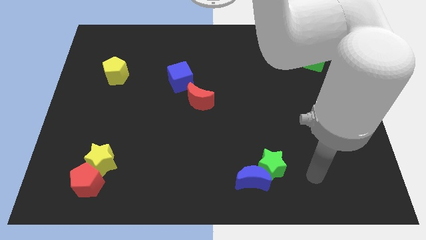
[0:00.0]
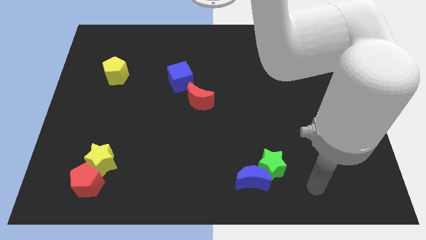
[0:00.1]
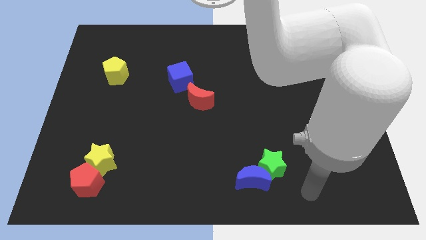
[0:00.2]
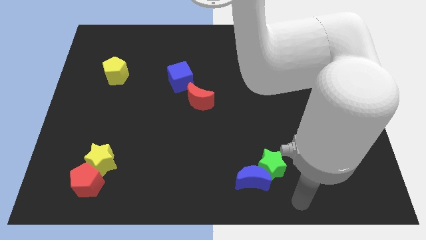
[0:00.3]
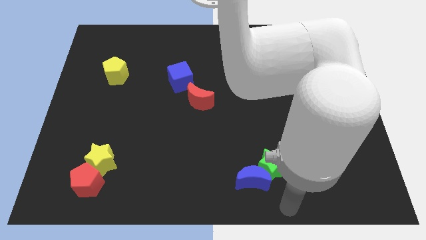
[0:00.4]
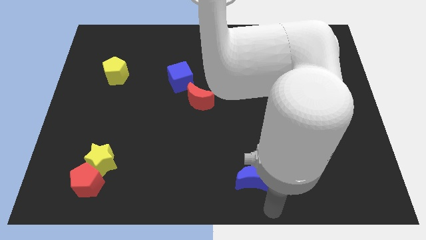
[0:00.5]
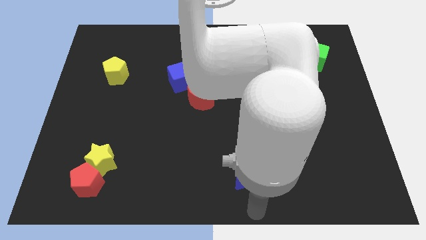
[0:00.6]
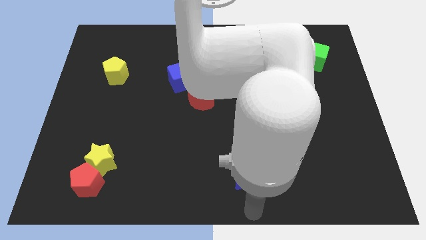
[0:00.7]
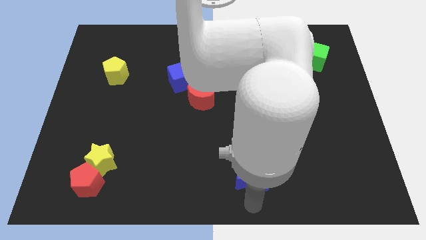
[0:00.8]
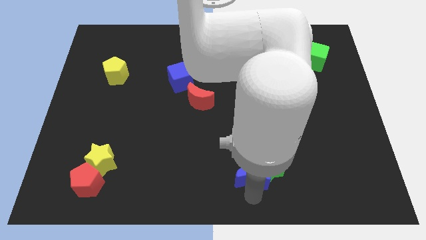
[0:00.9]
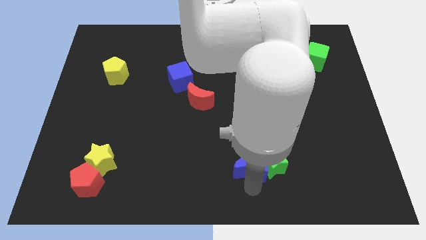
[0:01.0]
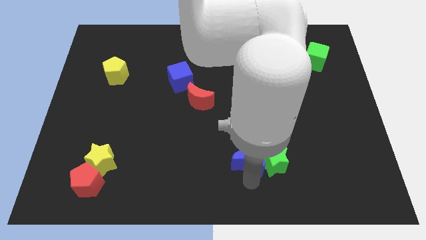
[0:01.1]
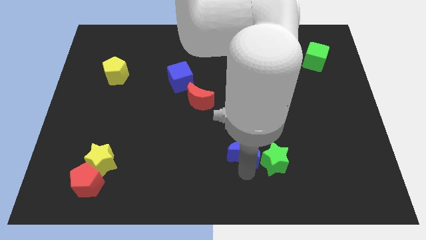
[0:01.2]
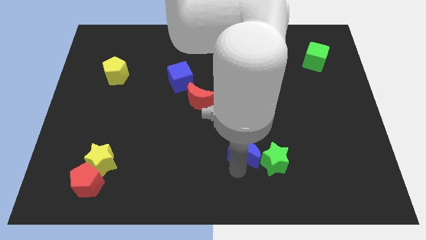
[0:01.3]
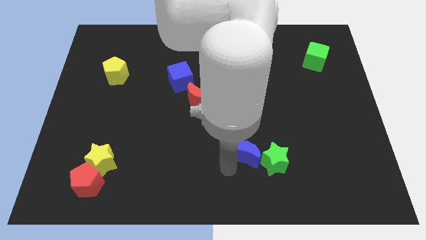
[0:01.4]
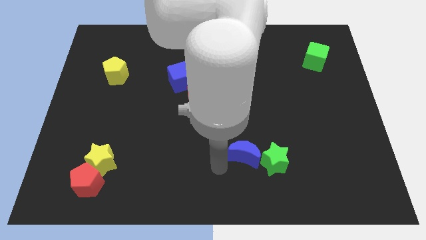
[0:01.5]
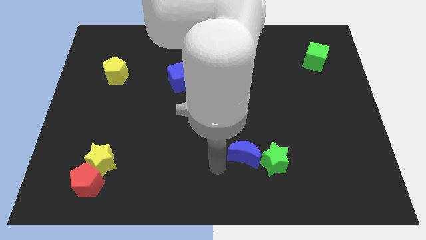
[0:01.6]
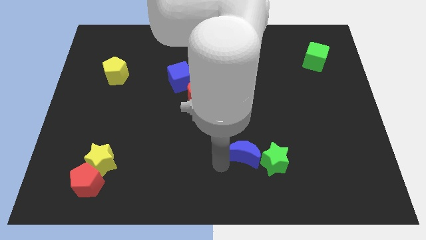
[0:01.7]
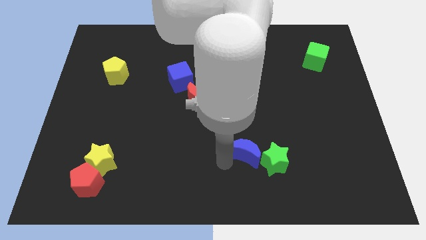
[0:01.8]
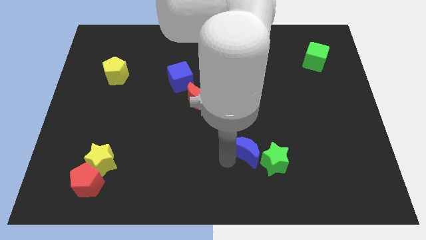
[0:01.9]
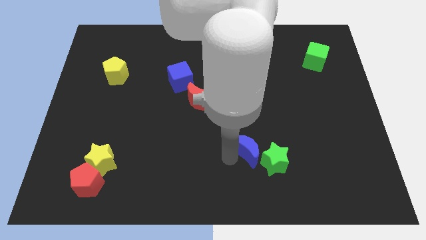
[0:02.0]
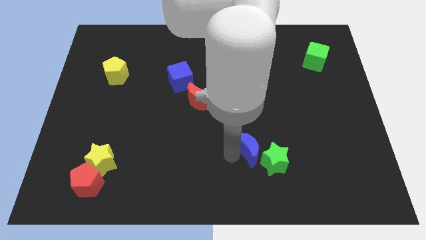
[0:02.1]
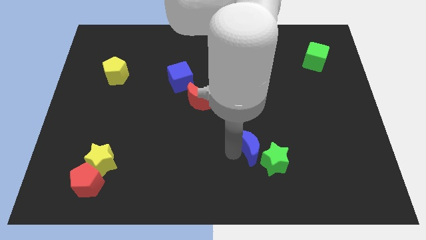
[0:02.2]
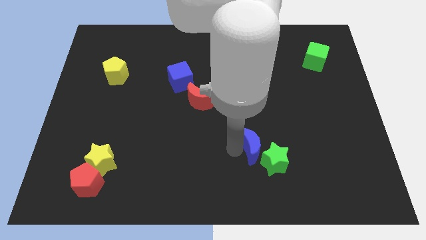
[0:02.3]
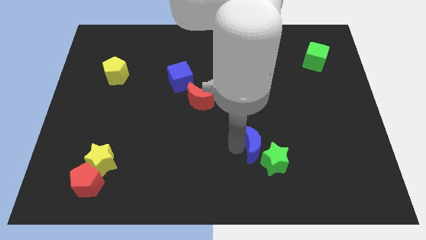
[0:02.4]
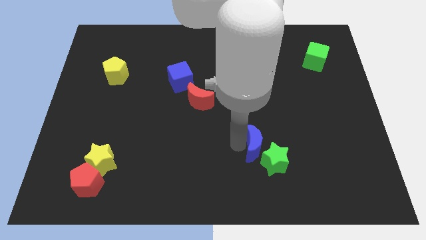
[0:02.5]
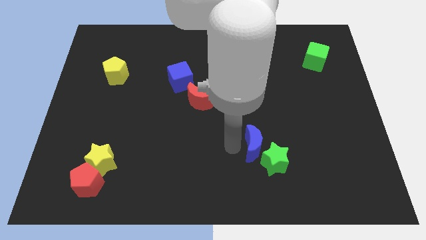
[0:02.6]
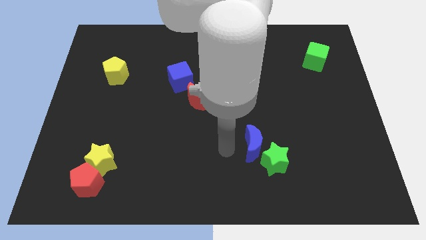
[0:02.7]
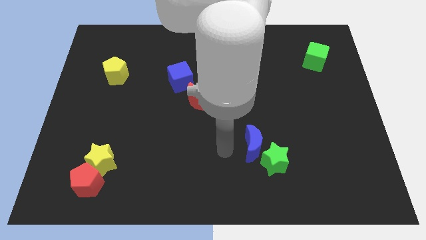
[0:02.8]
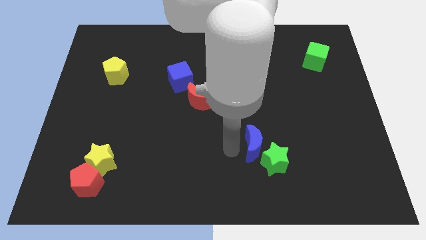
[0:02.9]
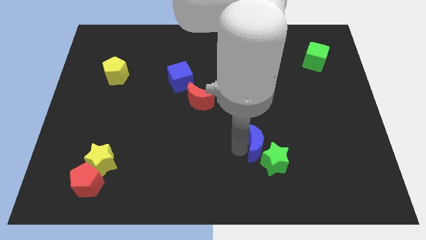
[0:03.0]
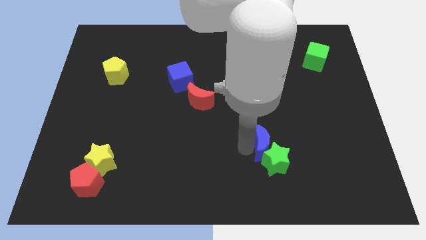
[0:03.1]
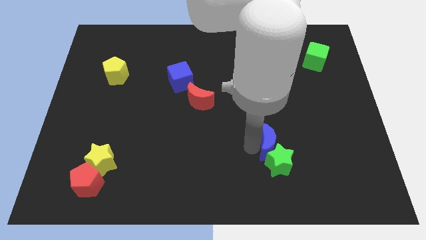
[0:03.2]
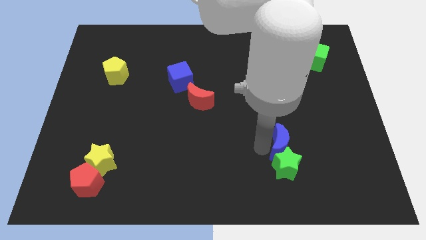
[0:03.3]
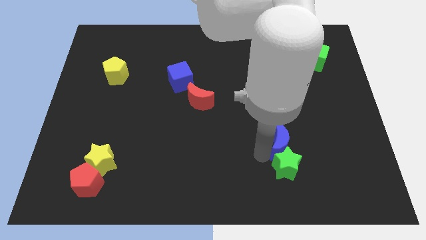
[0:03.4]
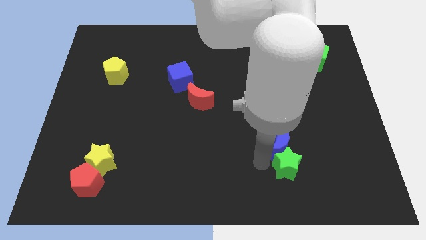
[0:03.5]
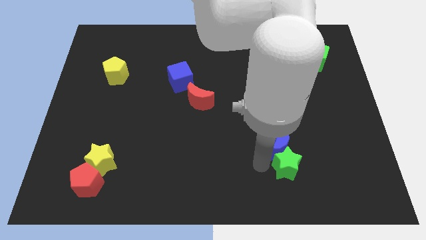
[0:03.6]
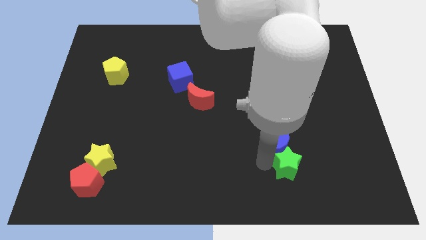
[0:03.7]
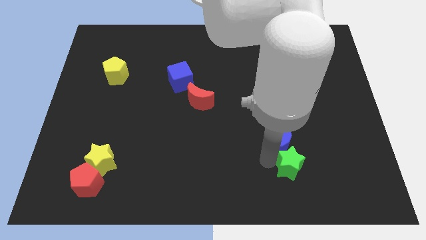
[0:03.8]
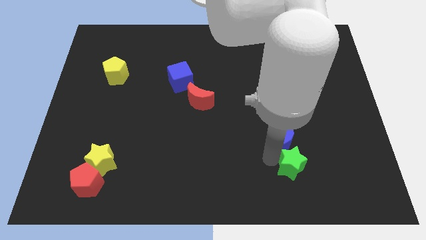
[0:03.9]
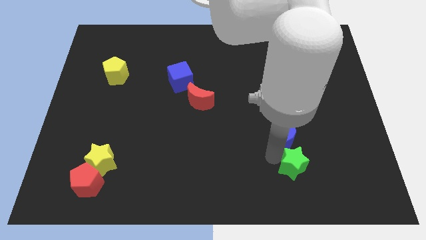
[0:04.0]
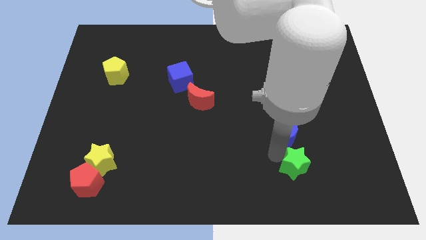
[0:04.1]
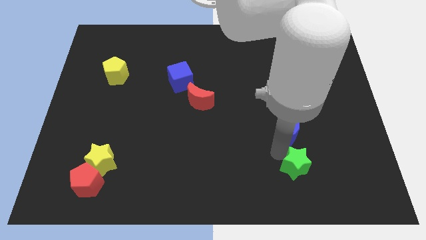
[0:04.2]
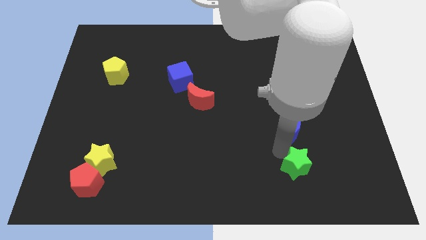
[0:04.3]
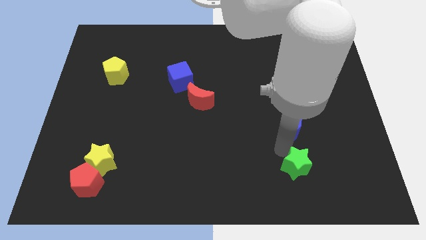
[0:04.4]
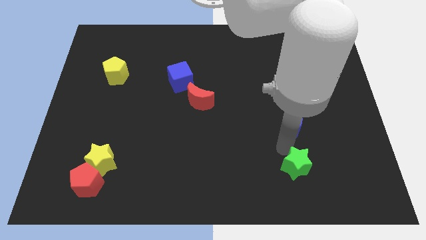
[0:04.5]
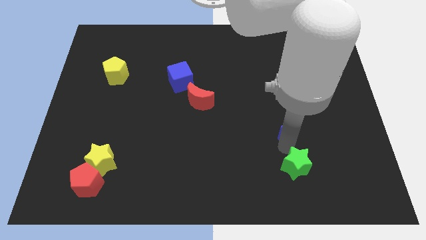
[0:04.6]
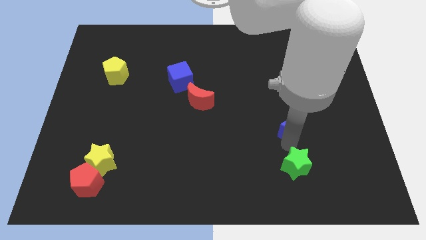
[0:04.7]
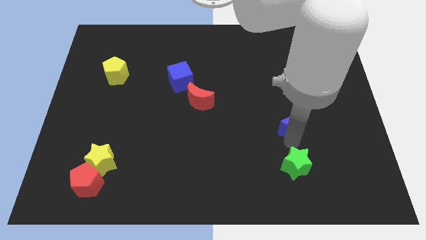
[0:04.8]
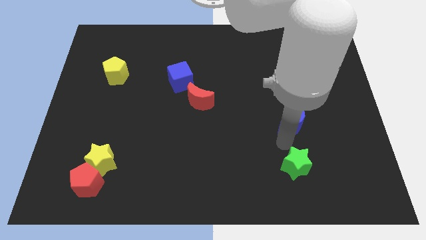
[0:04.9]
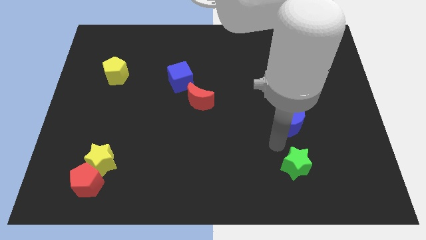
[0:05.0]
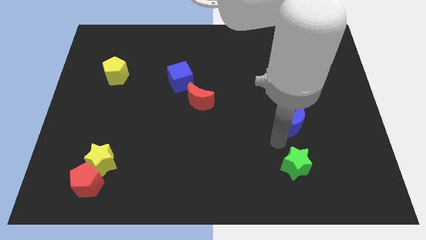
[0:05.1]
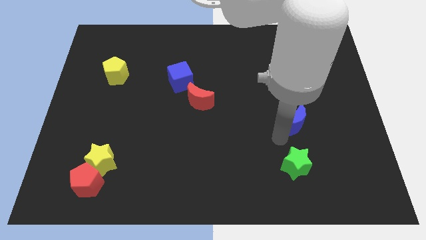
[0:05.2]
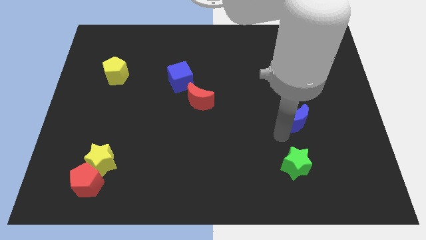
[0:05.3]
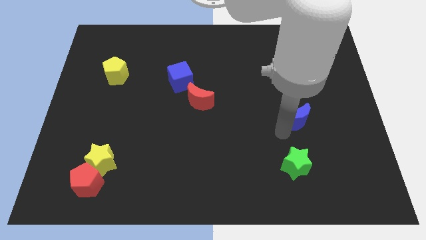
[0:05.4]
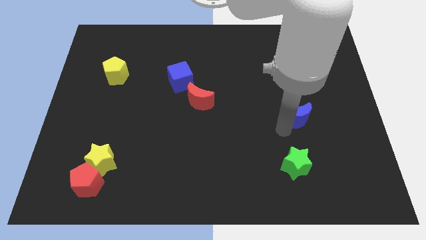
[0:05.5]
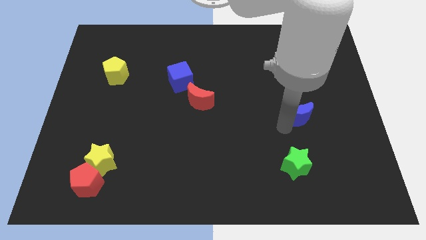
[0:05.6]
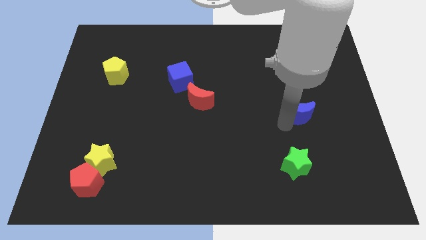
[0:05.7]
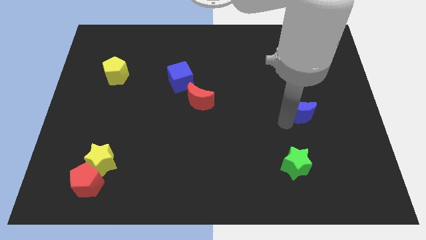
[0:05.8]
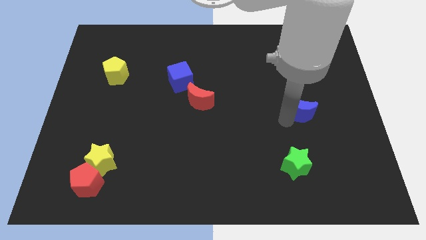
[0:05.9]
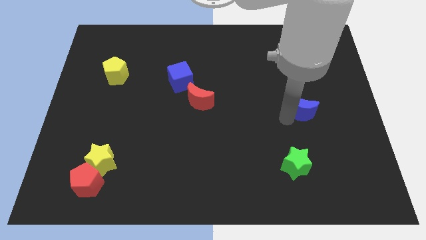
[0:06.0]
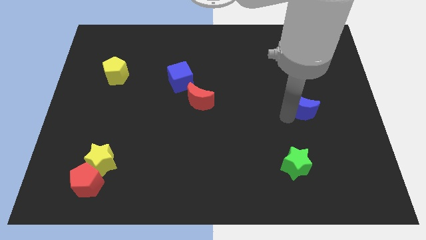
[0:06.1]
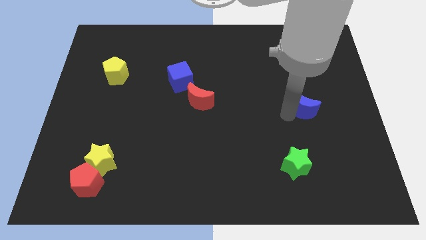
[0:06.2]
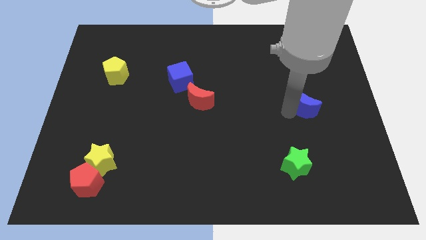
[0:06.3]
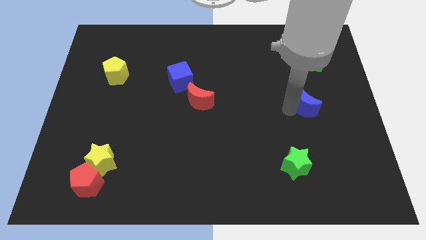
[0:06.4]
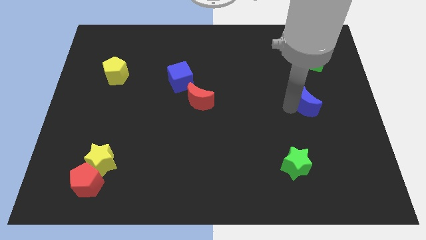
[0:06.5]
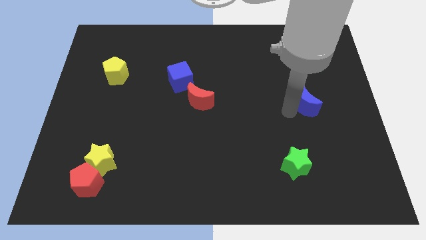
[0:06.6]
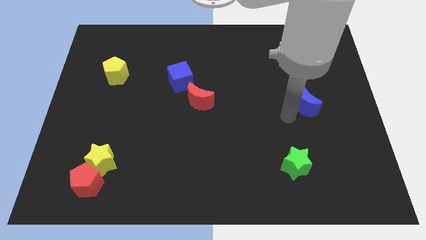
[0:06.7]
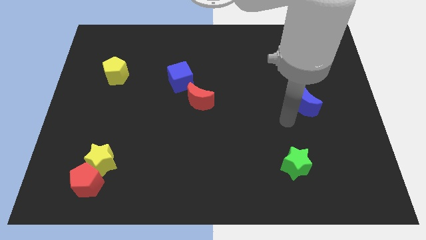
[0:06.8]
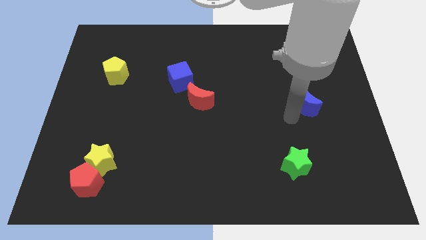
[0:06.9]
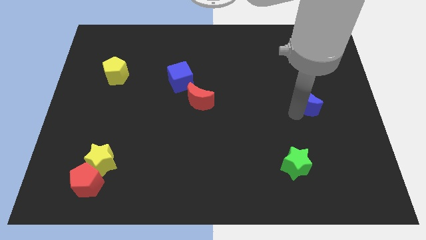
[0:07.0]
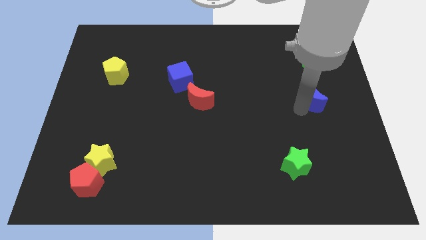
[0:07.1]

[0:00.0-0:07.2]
slide the blue moon to the bottom side of the green cube
